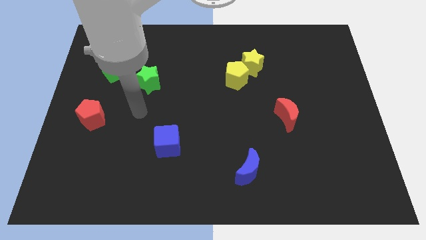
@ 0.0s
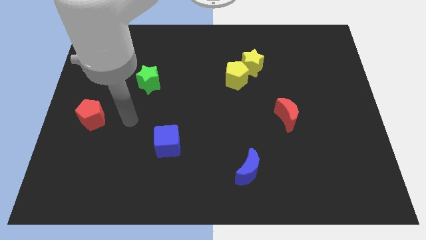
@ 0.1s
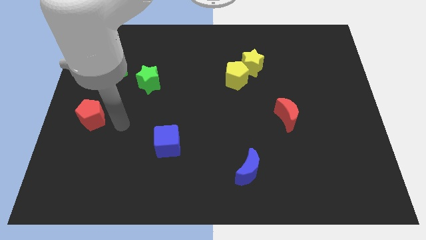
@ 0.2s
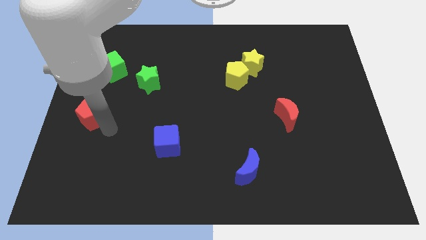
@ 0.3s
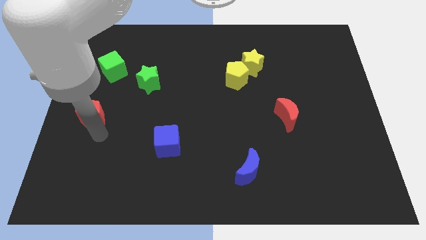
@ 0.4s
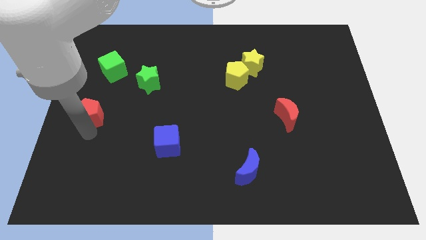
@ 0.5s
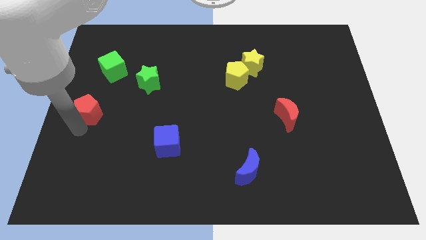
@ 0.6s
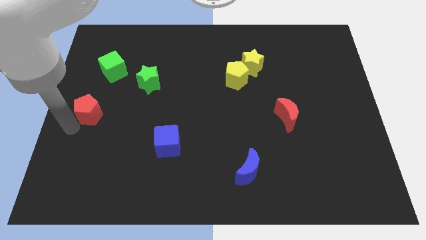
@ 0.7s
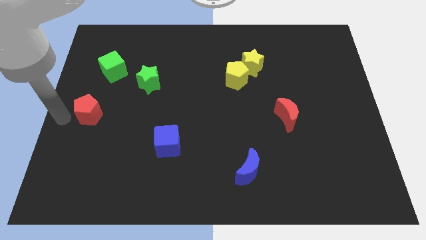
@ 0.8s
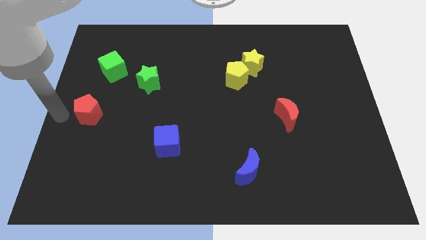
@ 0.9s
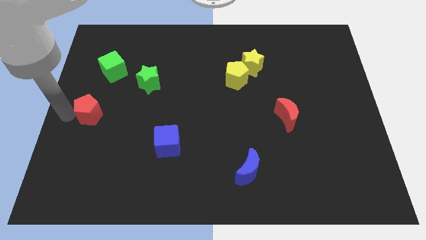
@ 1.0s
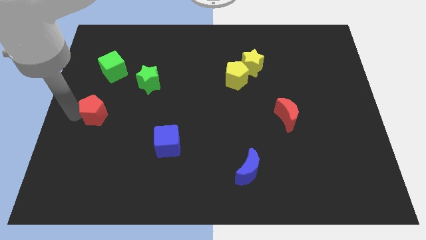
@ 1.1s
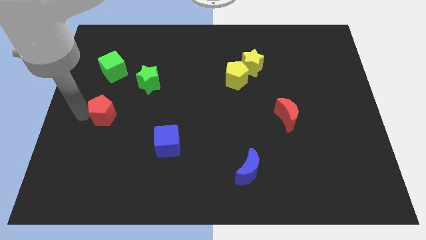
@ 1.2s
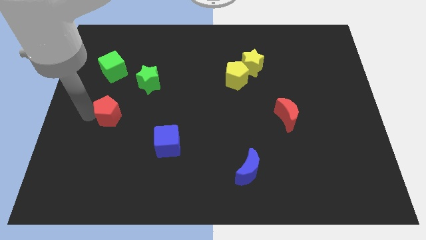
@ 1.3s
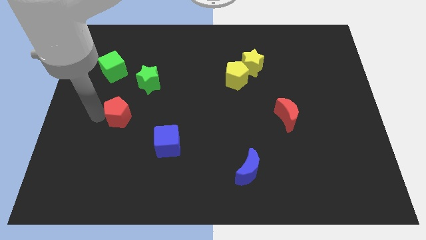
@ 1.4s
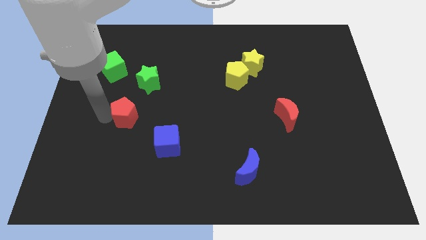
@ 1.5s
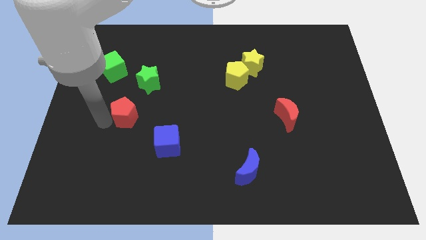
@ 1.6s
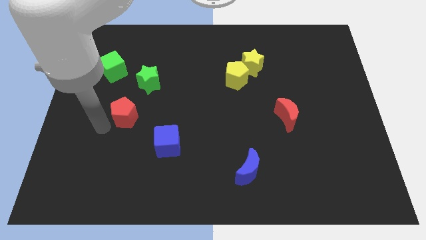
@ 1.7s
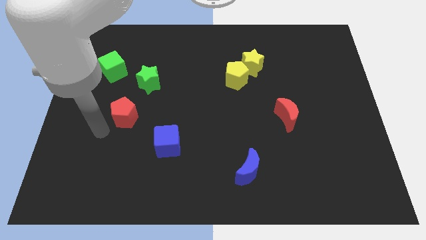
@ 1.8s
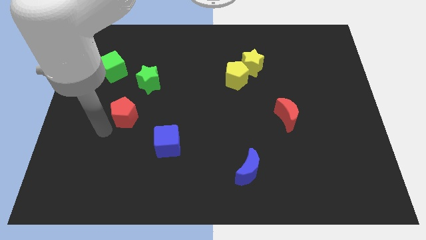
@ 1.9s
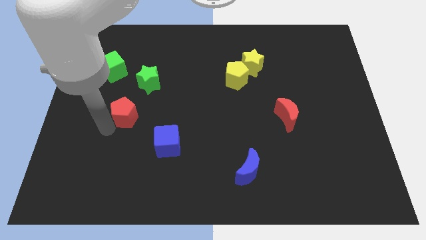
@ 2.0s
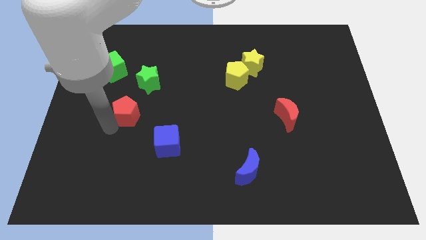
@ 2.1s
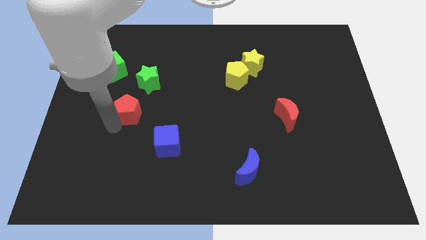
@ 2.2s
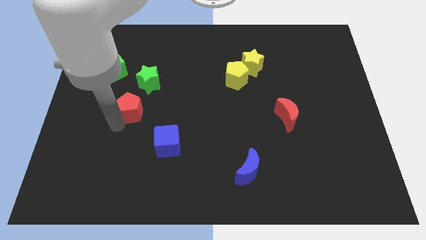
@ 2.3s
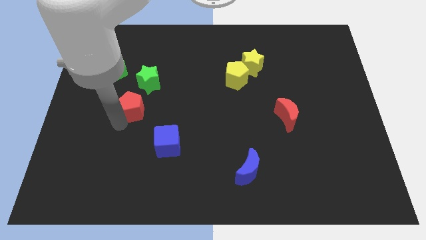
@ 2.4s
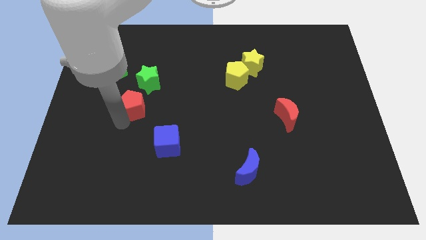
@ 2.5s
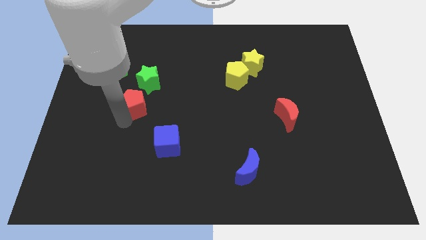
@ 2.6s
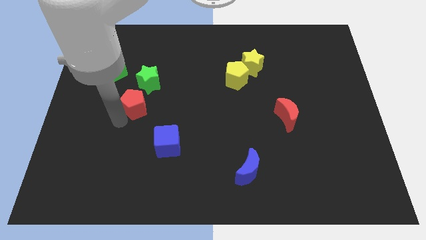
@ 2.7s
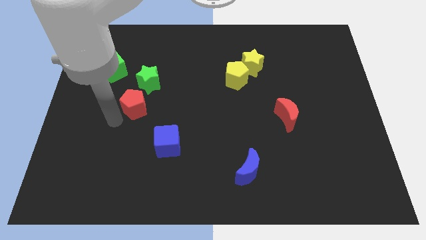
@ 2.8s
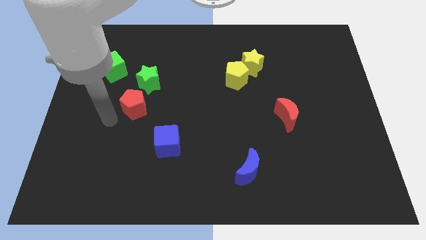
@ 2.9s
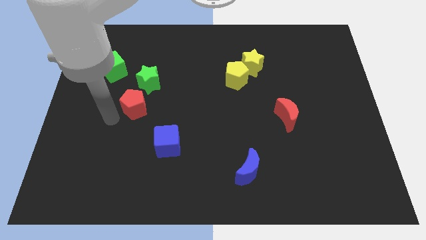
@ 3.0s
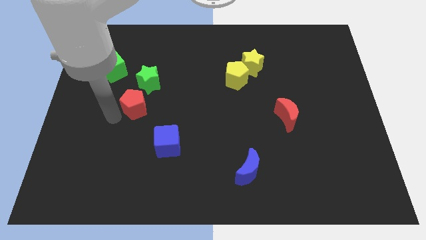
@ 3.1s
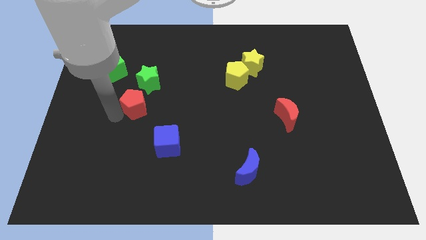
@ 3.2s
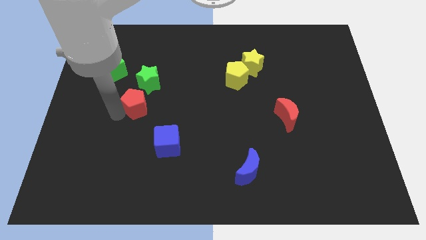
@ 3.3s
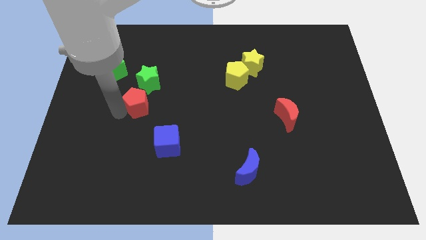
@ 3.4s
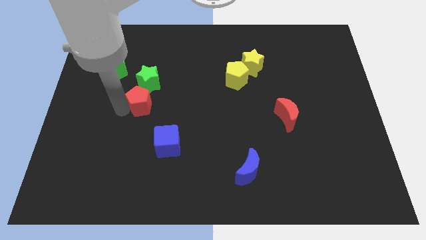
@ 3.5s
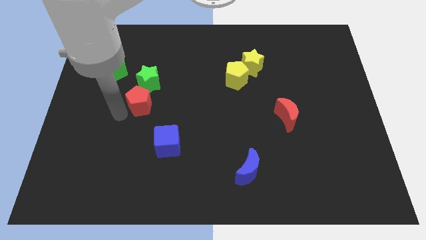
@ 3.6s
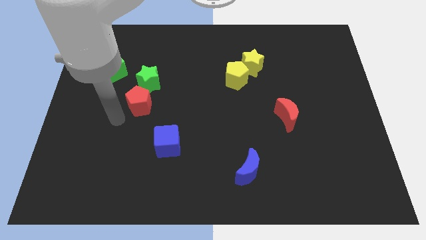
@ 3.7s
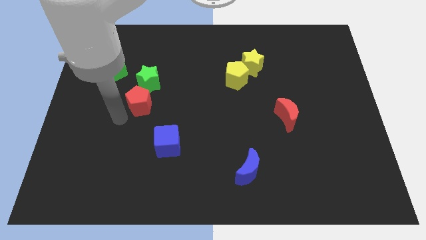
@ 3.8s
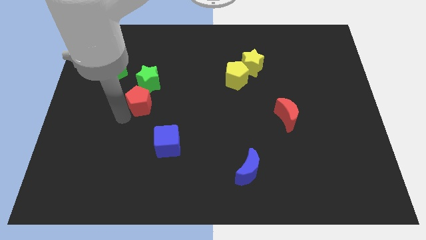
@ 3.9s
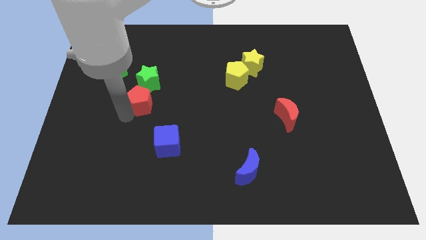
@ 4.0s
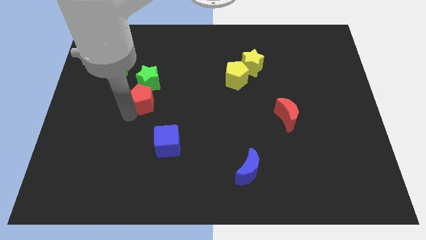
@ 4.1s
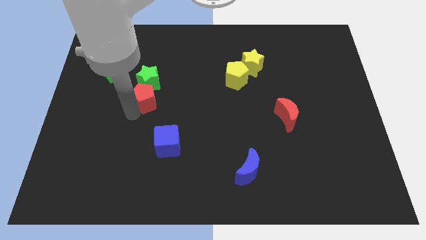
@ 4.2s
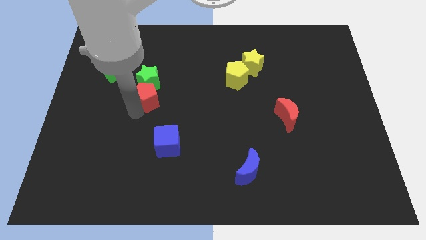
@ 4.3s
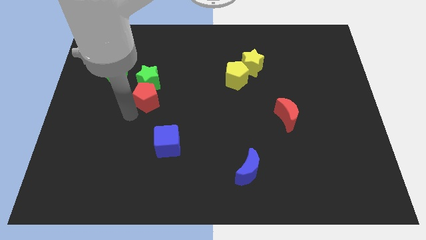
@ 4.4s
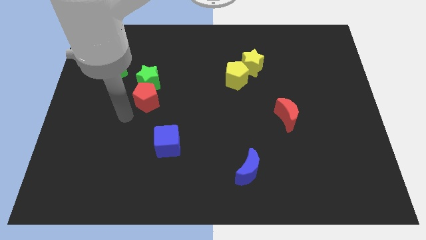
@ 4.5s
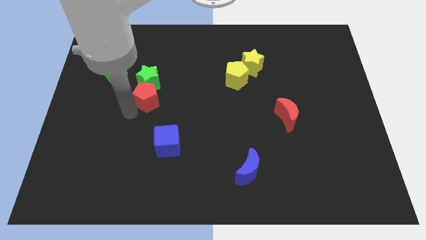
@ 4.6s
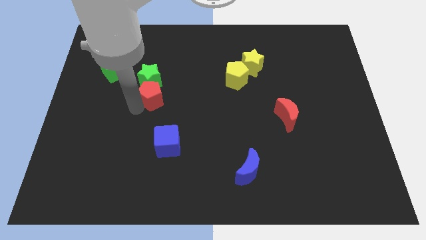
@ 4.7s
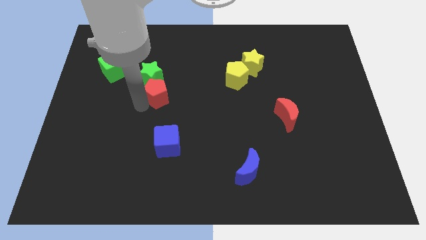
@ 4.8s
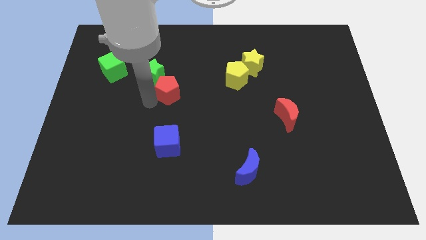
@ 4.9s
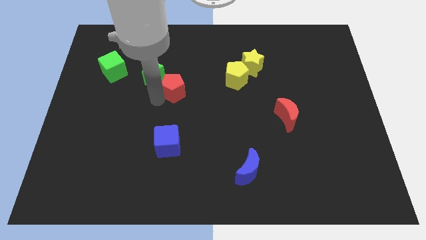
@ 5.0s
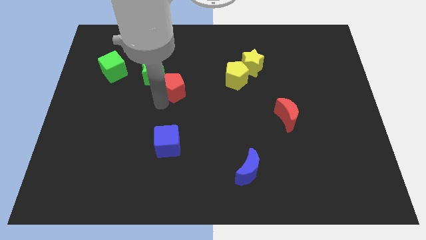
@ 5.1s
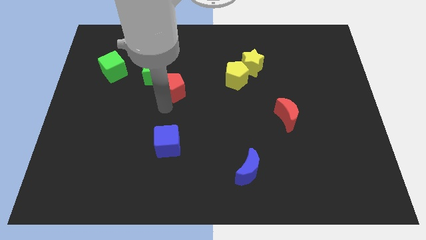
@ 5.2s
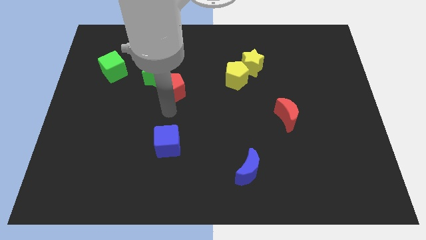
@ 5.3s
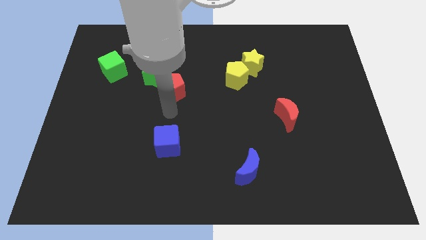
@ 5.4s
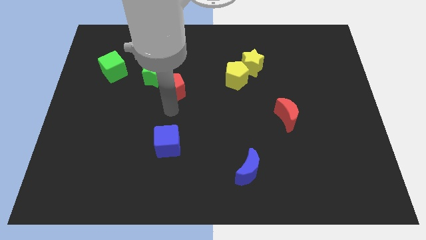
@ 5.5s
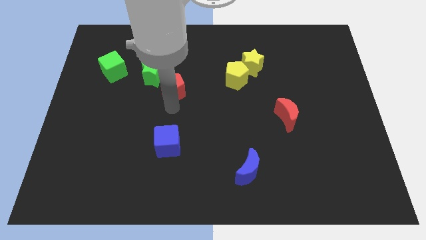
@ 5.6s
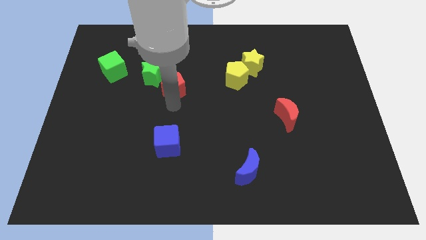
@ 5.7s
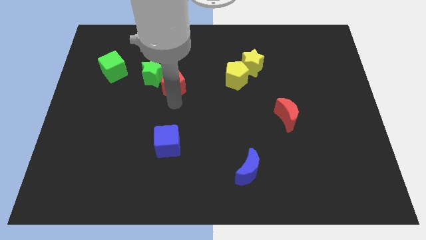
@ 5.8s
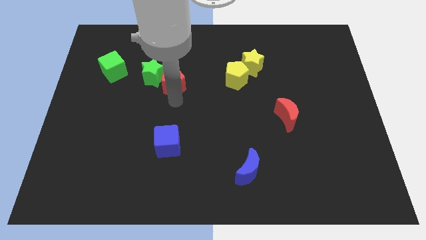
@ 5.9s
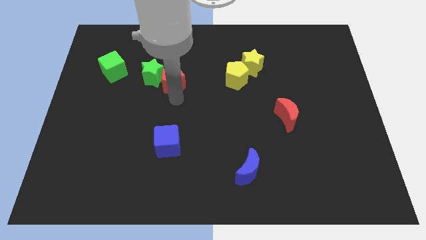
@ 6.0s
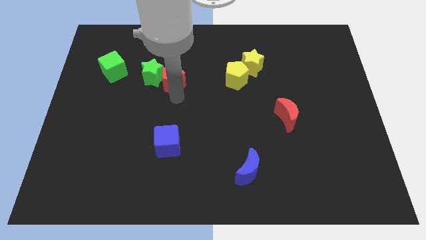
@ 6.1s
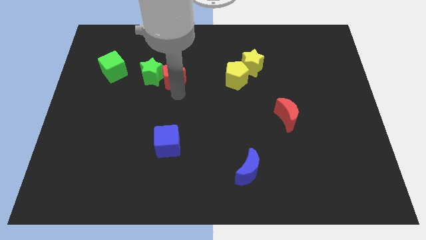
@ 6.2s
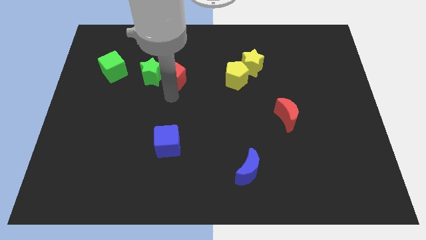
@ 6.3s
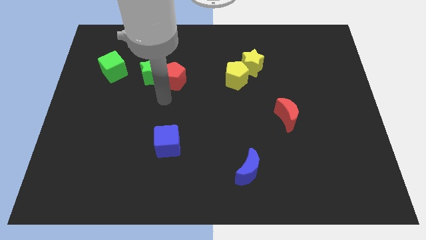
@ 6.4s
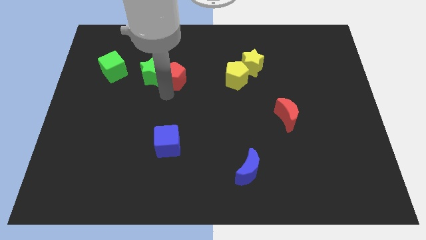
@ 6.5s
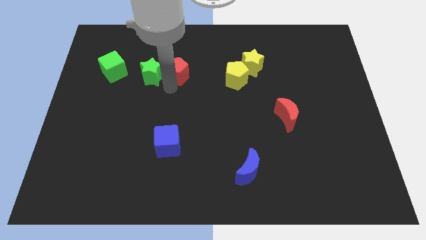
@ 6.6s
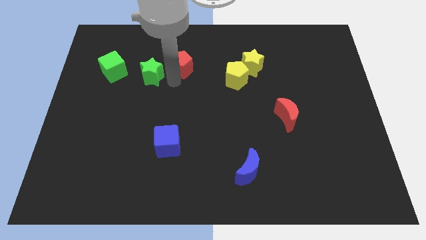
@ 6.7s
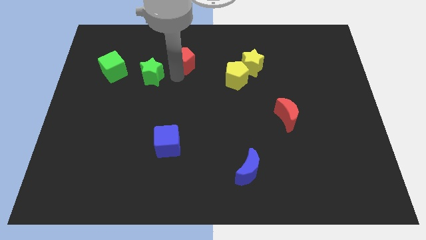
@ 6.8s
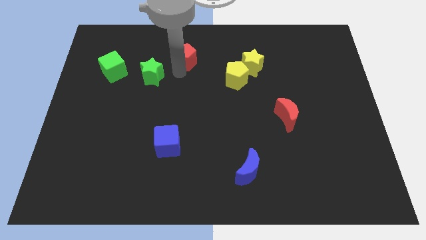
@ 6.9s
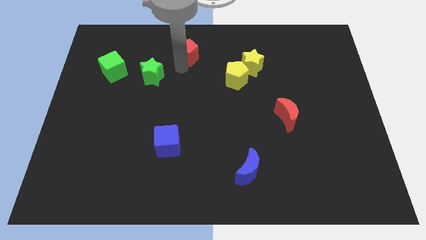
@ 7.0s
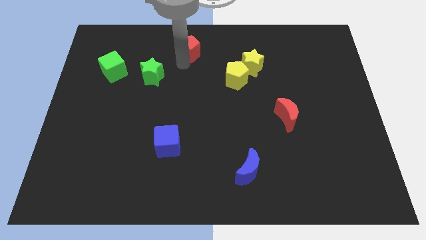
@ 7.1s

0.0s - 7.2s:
move the red pentagon to the top
